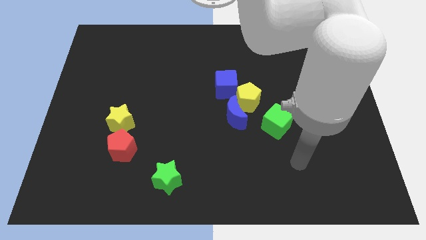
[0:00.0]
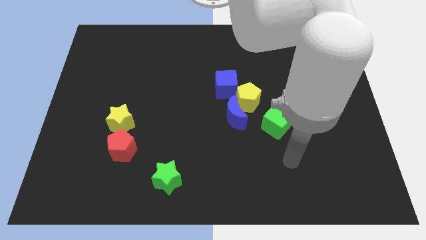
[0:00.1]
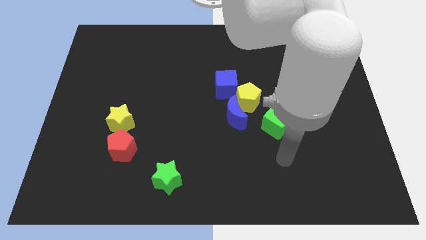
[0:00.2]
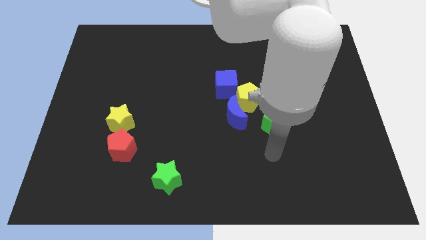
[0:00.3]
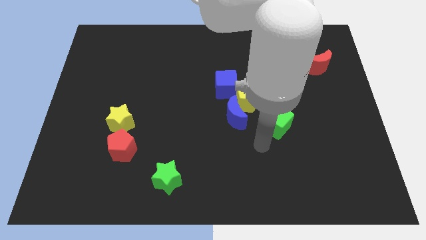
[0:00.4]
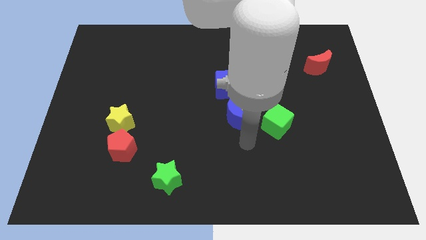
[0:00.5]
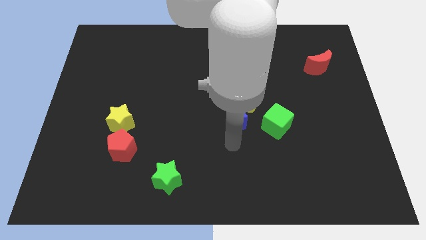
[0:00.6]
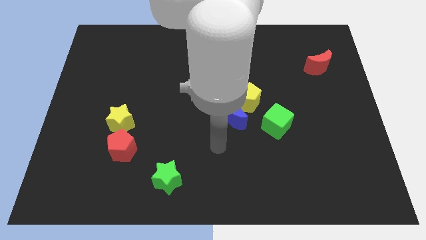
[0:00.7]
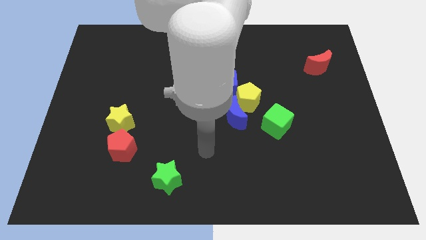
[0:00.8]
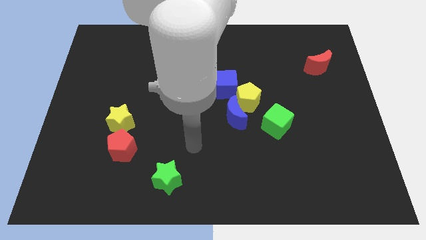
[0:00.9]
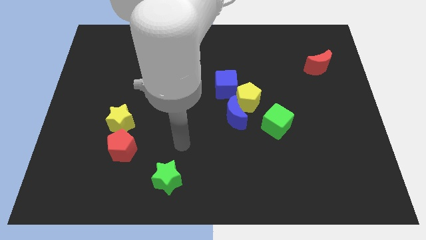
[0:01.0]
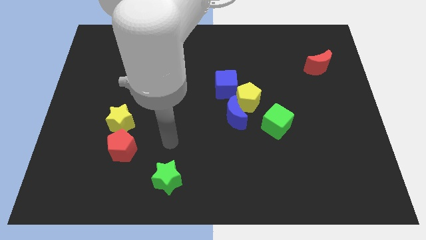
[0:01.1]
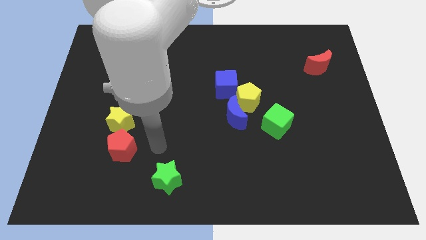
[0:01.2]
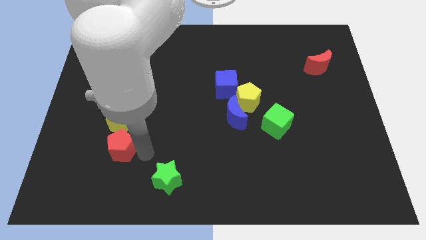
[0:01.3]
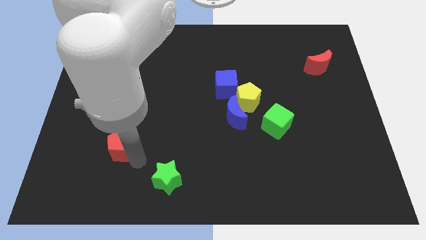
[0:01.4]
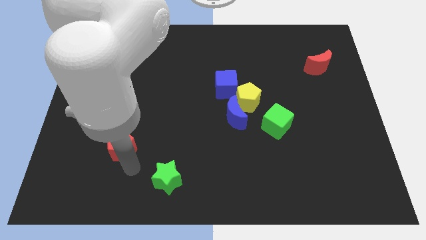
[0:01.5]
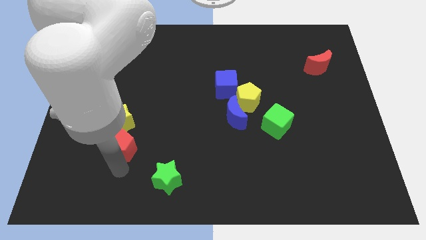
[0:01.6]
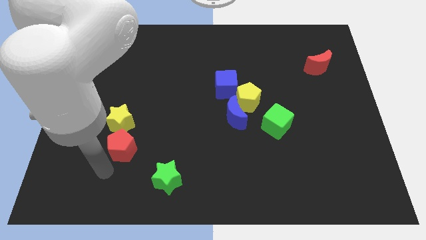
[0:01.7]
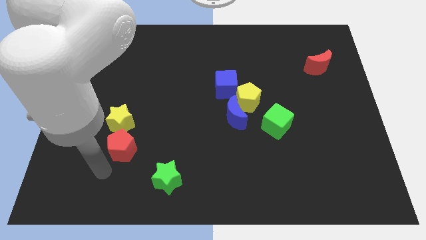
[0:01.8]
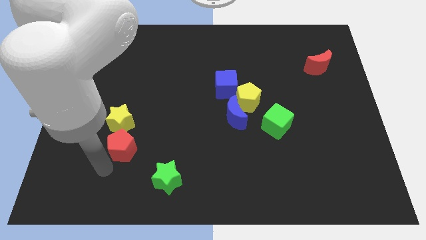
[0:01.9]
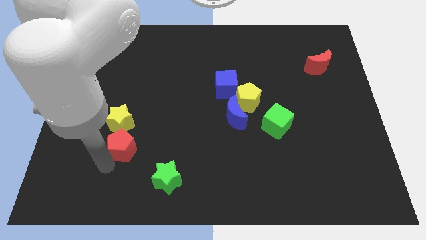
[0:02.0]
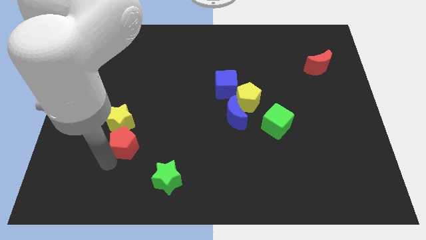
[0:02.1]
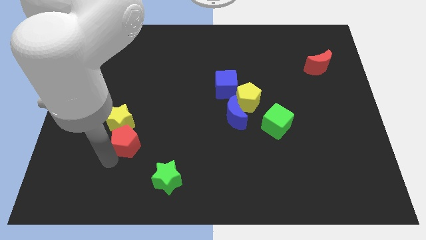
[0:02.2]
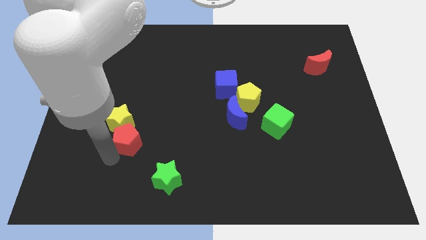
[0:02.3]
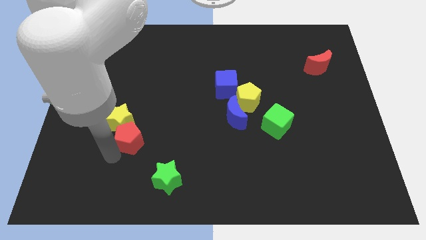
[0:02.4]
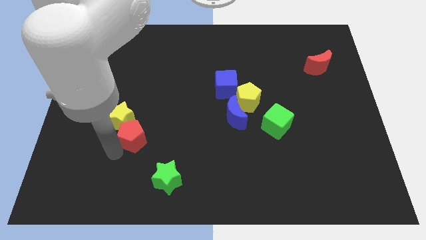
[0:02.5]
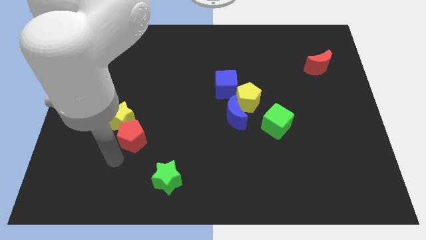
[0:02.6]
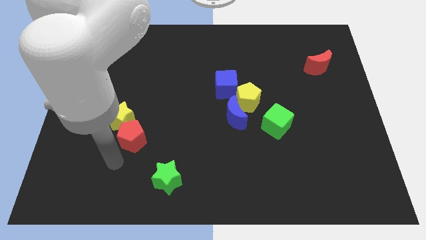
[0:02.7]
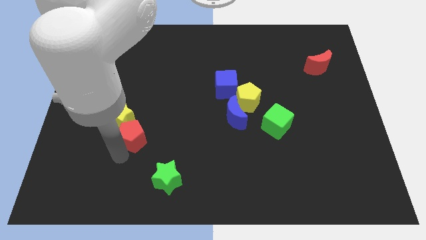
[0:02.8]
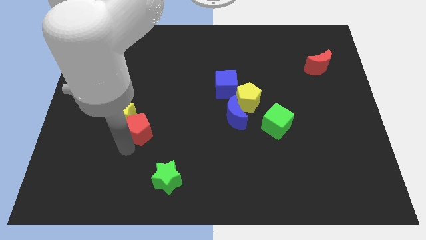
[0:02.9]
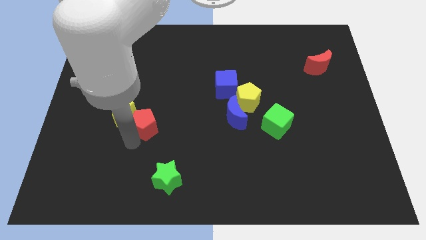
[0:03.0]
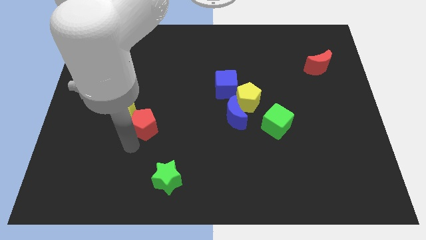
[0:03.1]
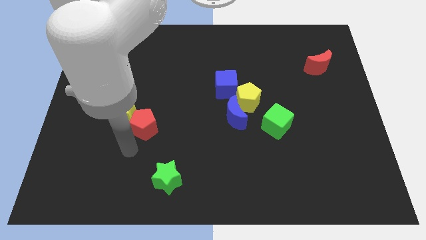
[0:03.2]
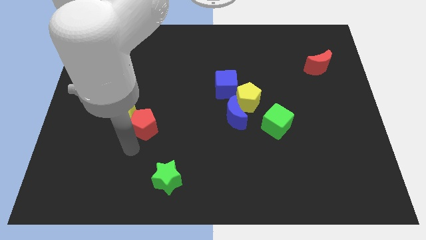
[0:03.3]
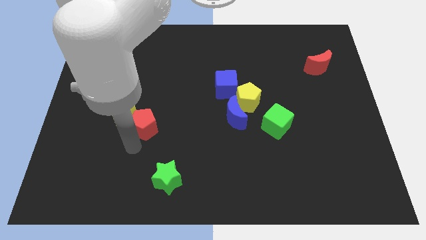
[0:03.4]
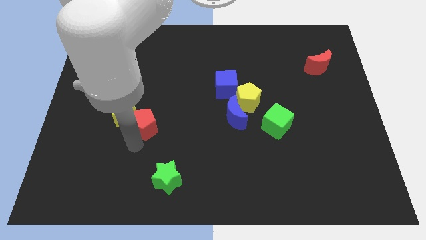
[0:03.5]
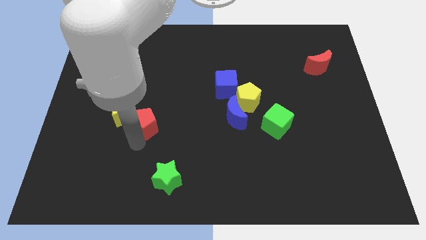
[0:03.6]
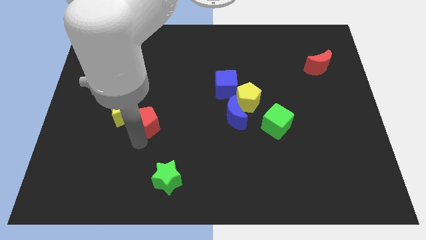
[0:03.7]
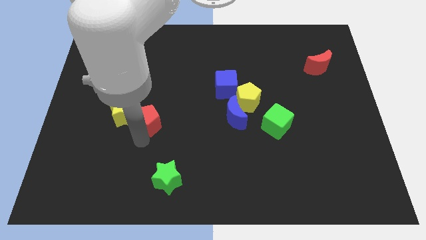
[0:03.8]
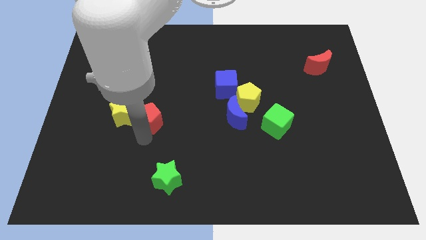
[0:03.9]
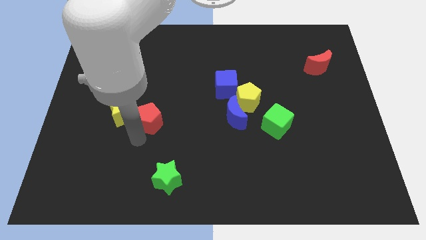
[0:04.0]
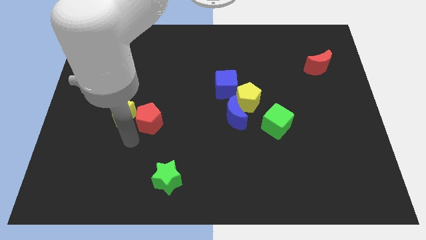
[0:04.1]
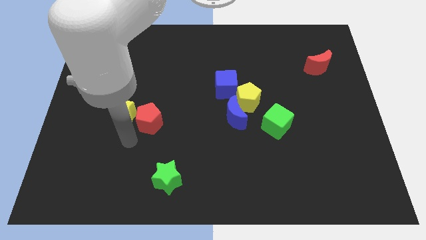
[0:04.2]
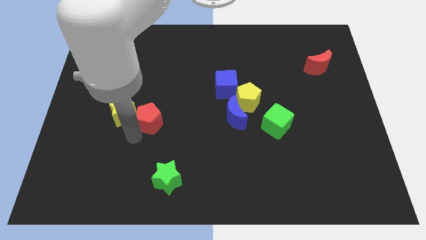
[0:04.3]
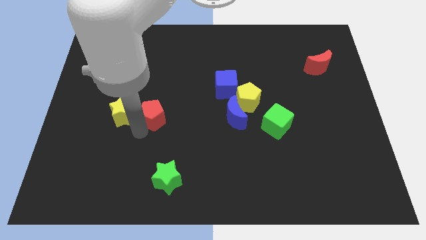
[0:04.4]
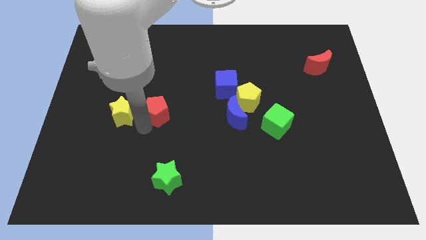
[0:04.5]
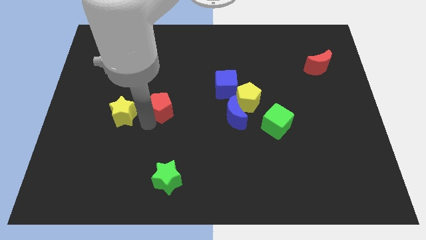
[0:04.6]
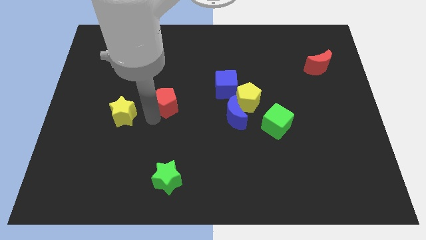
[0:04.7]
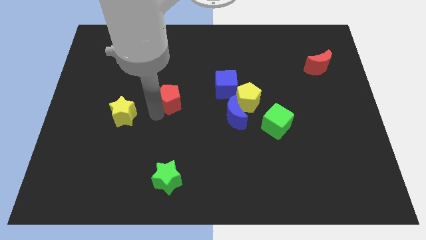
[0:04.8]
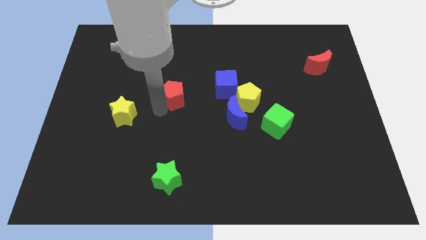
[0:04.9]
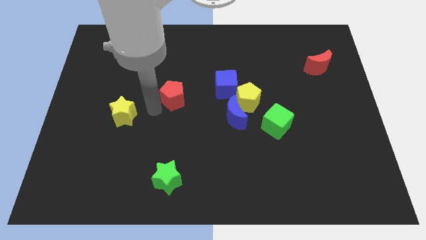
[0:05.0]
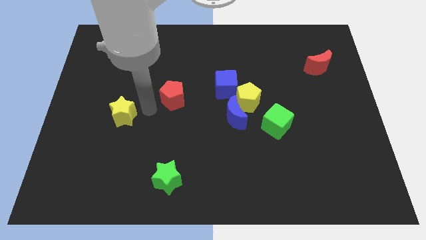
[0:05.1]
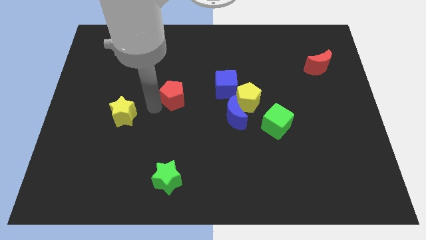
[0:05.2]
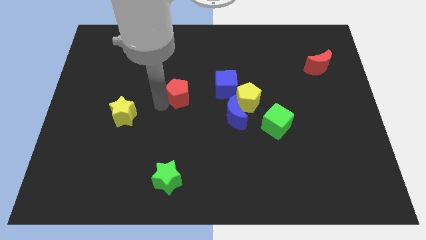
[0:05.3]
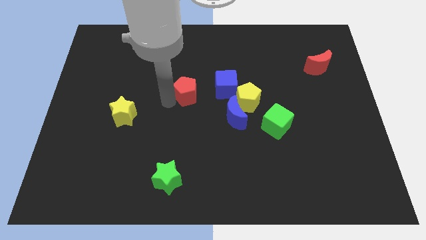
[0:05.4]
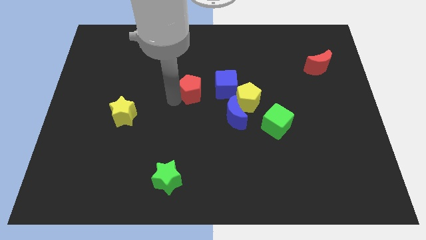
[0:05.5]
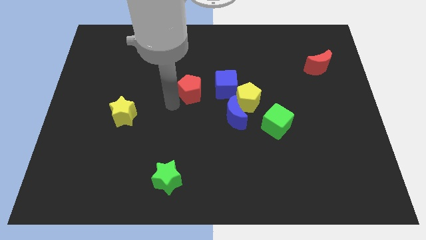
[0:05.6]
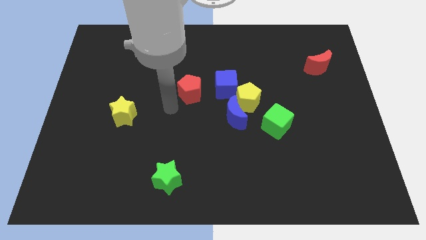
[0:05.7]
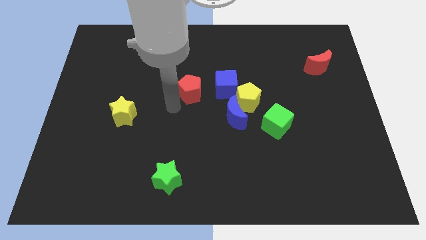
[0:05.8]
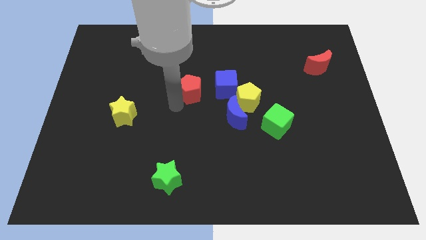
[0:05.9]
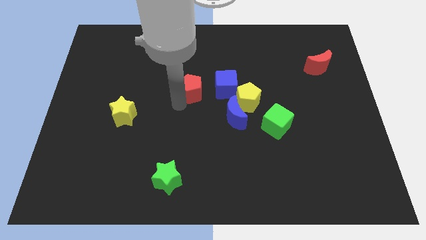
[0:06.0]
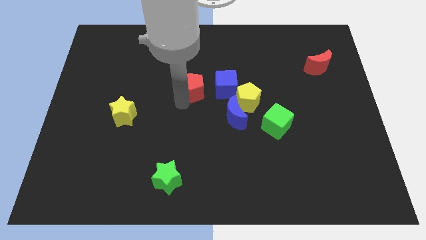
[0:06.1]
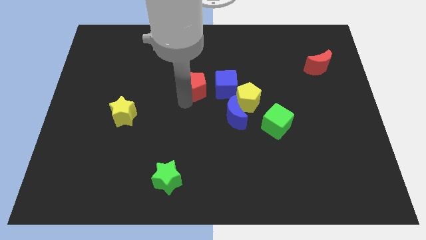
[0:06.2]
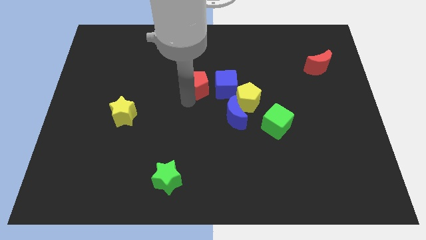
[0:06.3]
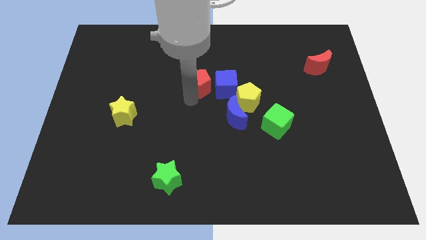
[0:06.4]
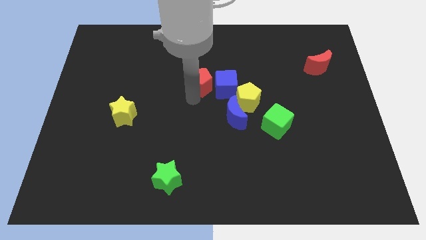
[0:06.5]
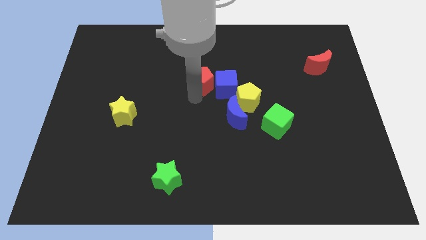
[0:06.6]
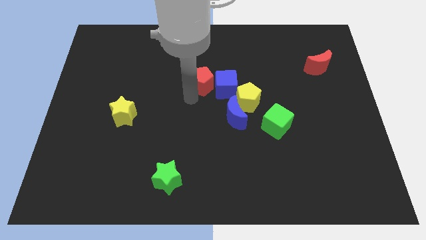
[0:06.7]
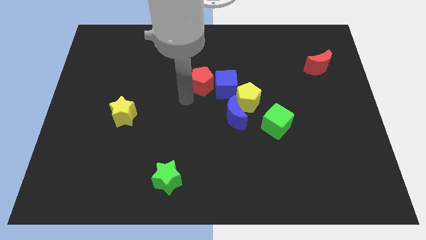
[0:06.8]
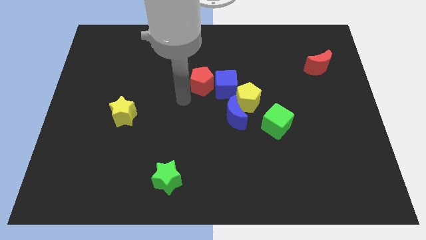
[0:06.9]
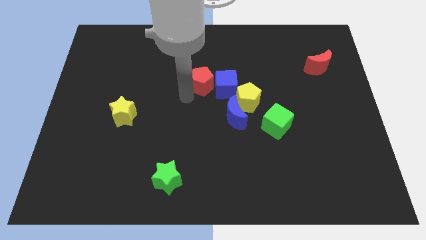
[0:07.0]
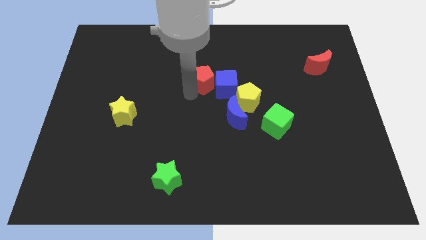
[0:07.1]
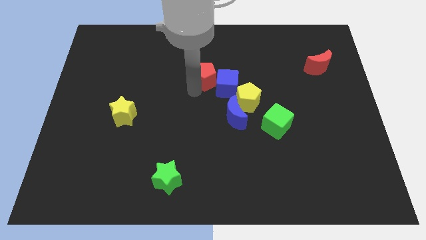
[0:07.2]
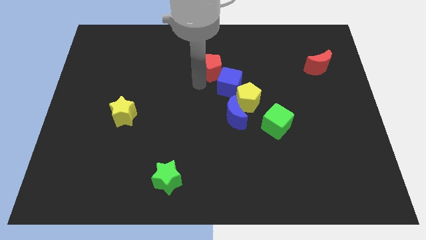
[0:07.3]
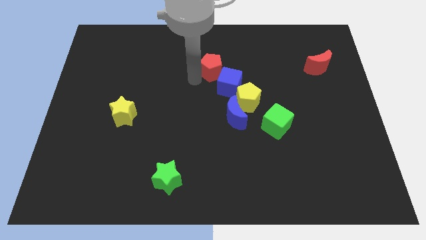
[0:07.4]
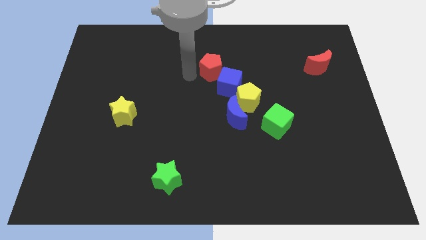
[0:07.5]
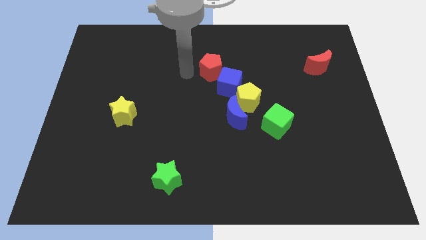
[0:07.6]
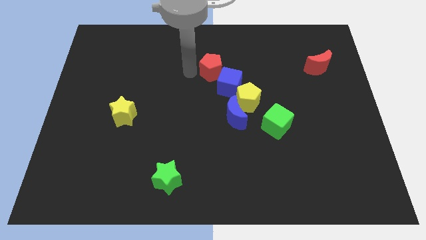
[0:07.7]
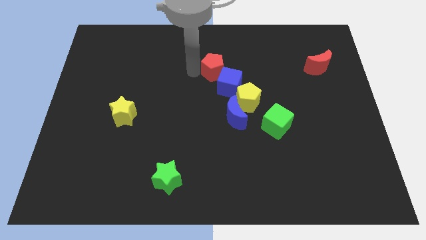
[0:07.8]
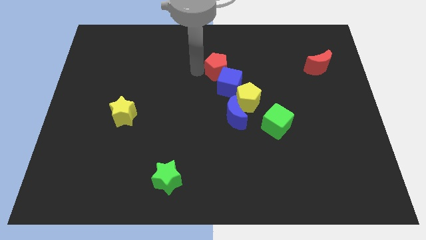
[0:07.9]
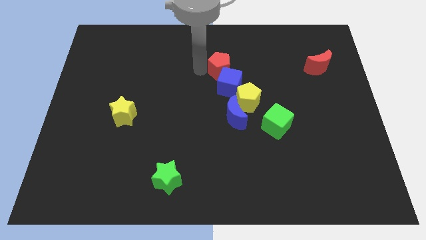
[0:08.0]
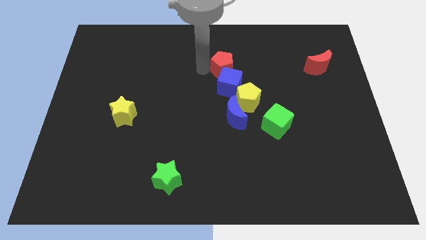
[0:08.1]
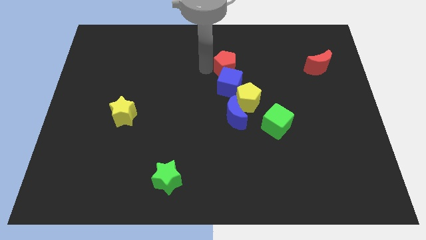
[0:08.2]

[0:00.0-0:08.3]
push the red pentagon to the top of the yellow pentagon
